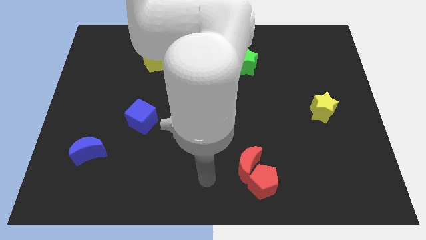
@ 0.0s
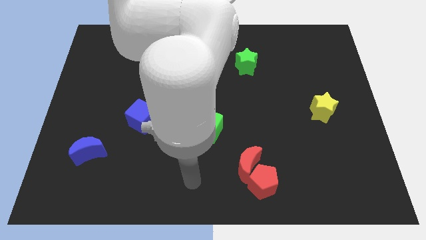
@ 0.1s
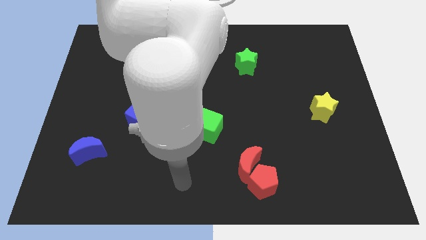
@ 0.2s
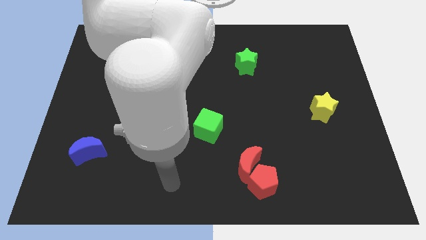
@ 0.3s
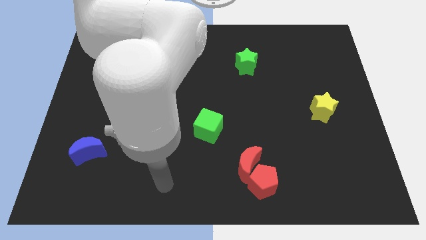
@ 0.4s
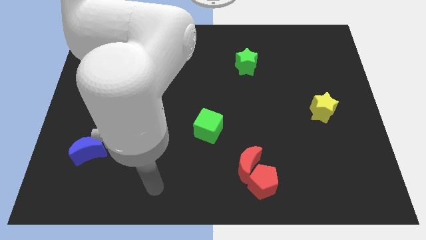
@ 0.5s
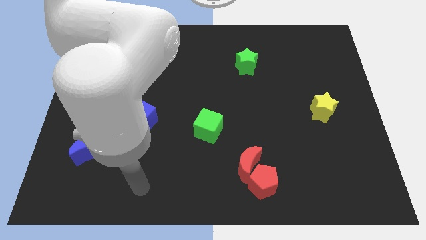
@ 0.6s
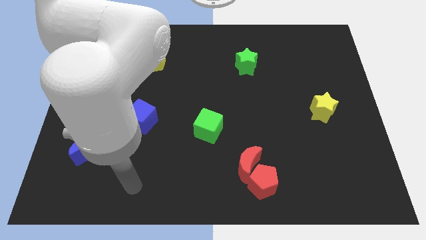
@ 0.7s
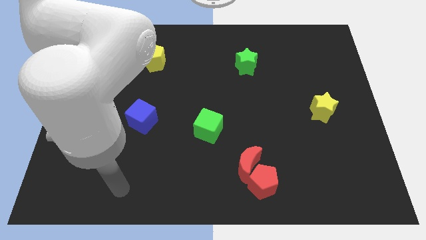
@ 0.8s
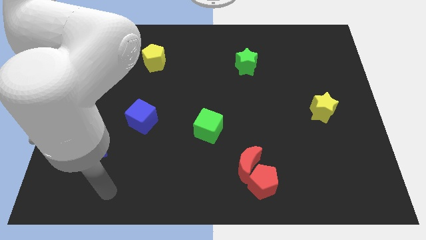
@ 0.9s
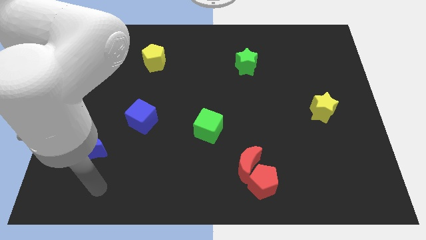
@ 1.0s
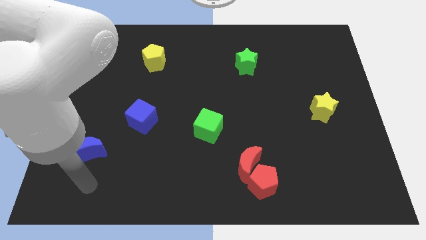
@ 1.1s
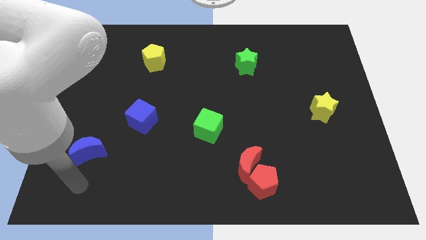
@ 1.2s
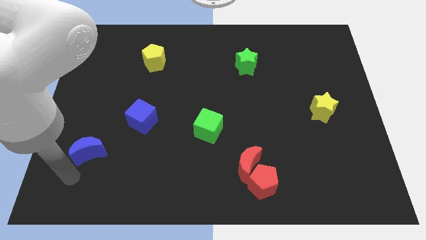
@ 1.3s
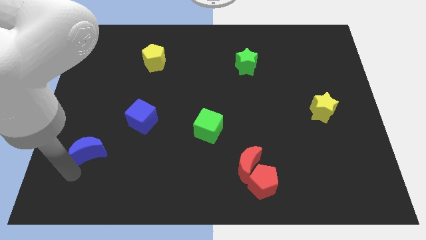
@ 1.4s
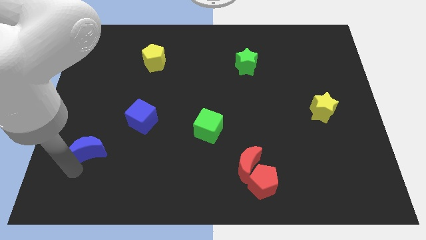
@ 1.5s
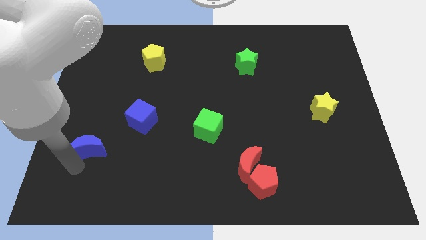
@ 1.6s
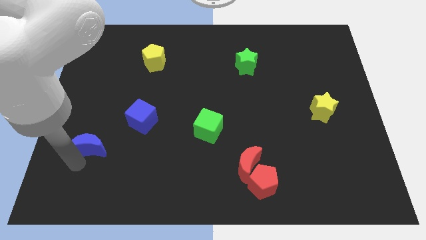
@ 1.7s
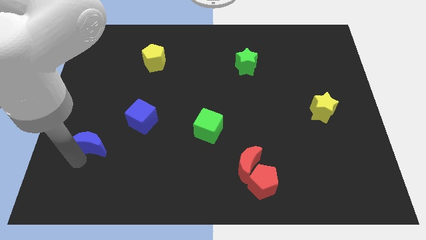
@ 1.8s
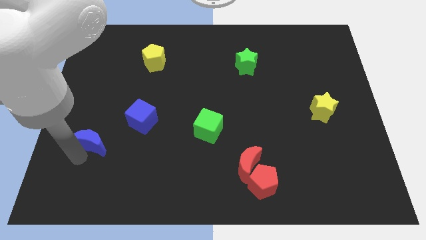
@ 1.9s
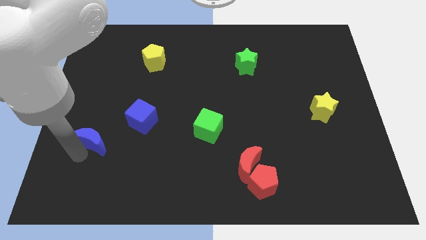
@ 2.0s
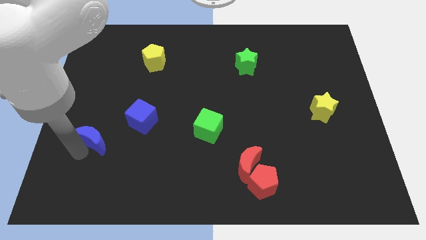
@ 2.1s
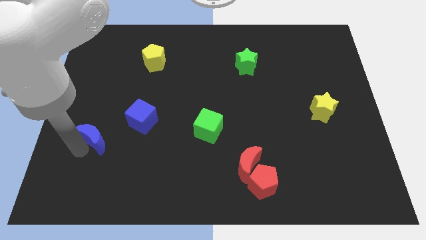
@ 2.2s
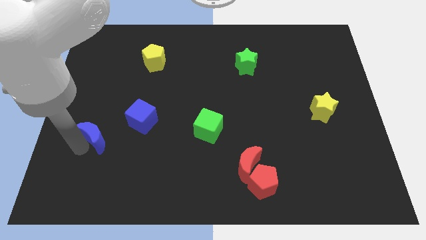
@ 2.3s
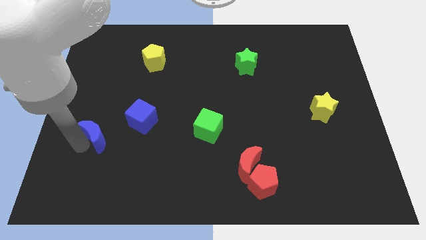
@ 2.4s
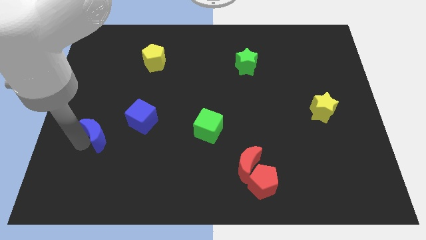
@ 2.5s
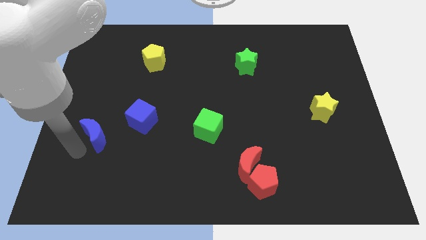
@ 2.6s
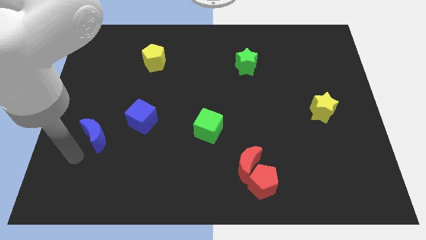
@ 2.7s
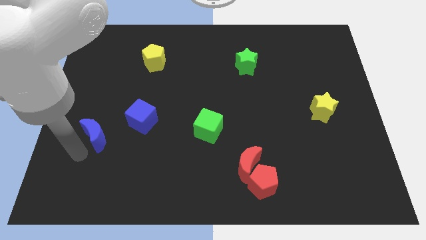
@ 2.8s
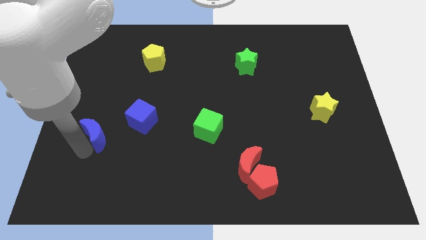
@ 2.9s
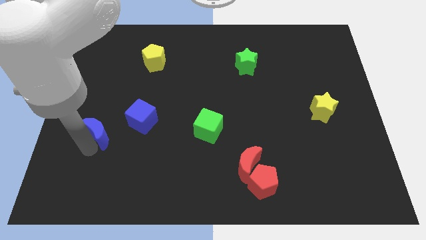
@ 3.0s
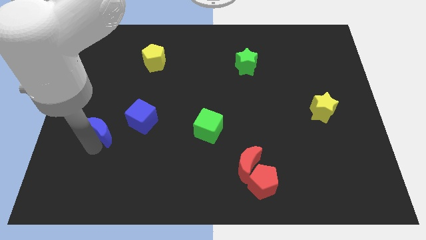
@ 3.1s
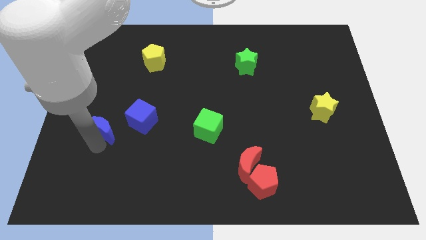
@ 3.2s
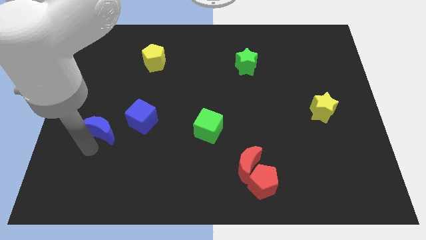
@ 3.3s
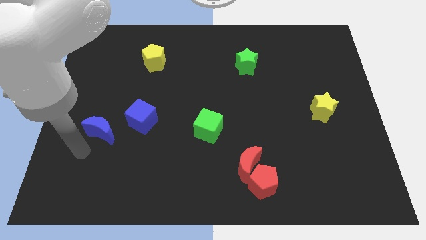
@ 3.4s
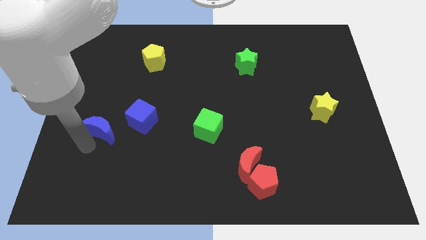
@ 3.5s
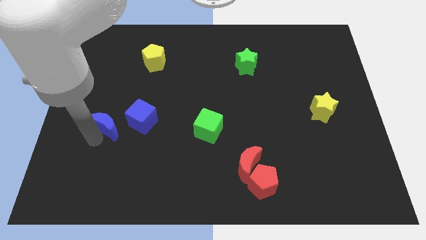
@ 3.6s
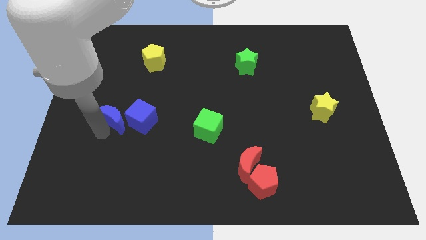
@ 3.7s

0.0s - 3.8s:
slightly push the blue moon upwards and right diagonally

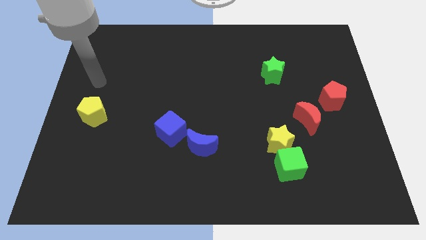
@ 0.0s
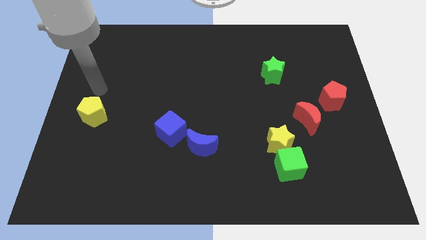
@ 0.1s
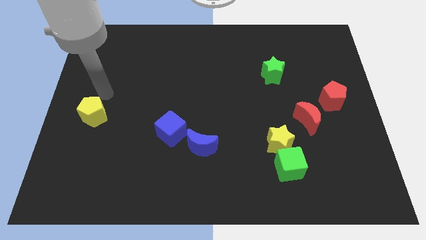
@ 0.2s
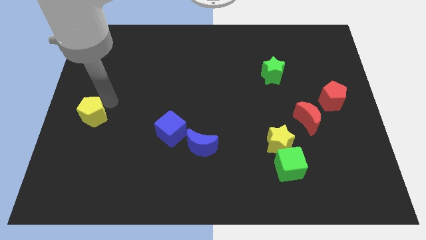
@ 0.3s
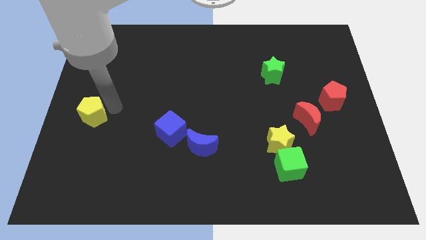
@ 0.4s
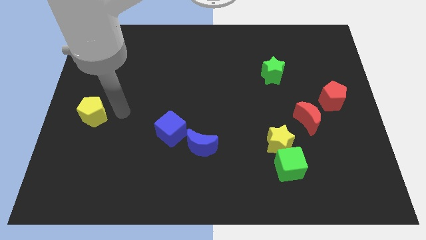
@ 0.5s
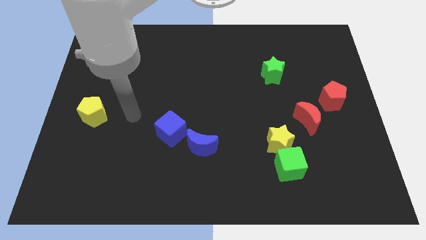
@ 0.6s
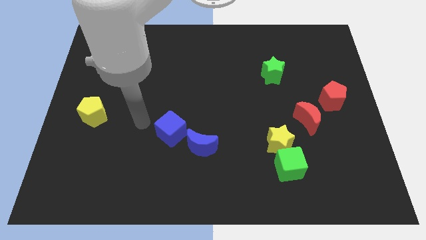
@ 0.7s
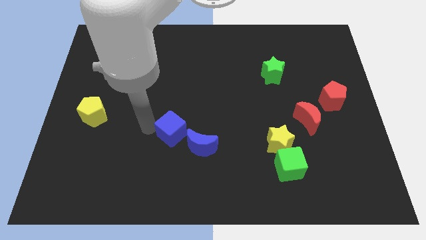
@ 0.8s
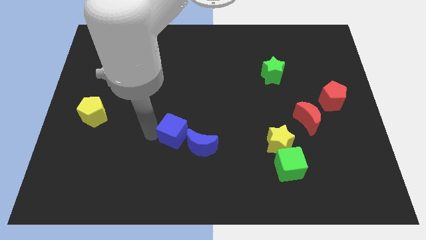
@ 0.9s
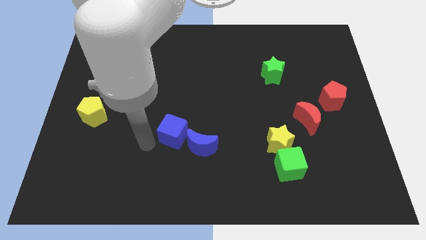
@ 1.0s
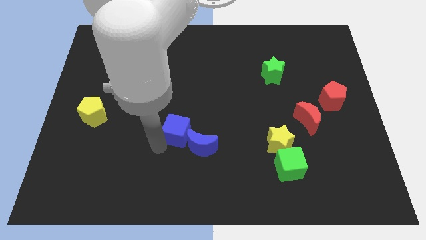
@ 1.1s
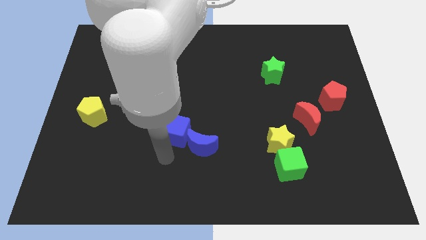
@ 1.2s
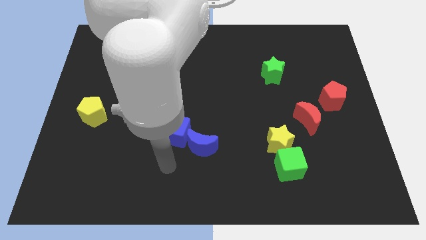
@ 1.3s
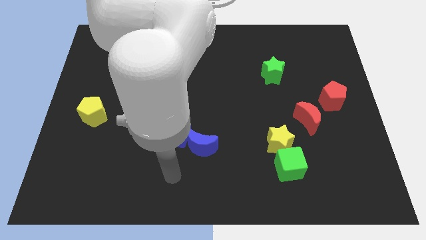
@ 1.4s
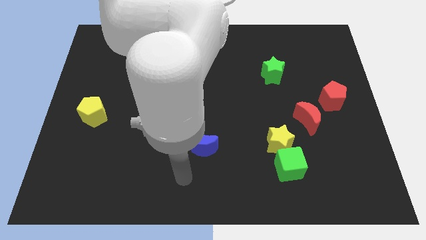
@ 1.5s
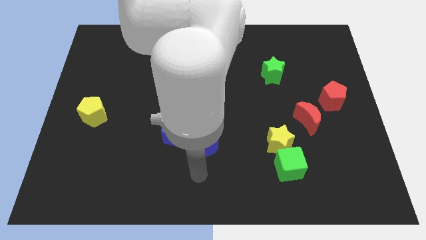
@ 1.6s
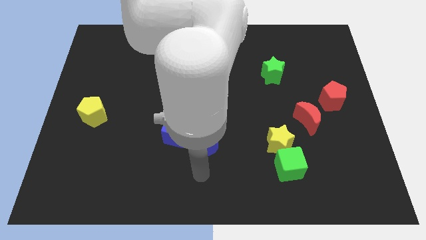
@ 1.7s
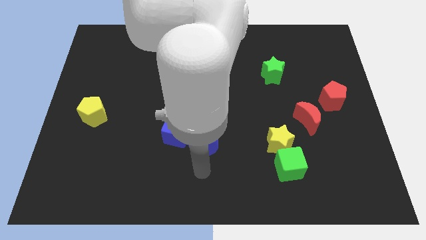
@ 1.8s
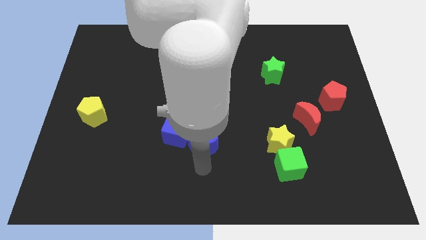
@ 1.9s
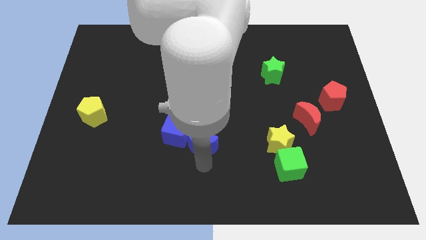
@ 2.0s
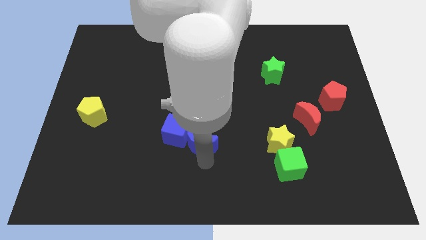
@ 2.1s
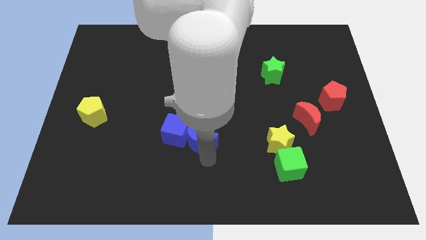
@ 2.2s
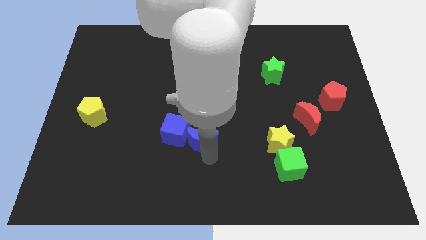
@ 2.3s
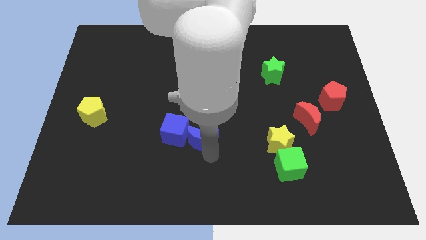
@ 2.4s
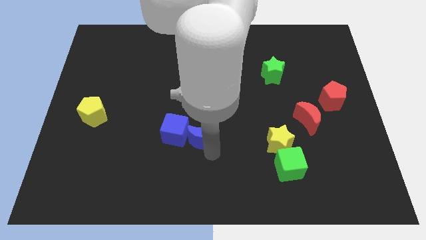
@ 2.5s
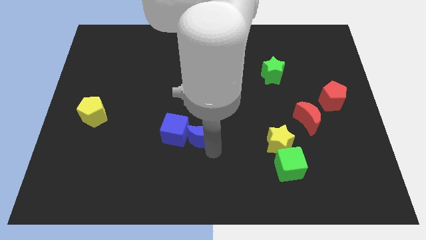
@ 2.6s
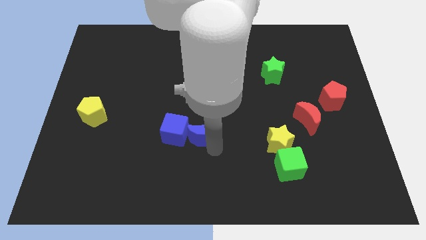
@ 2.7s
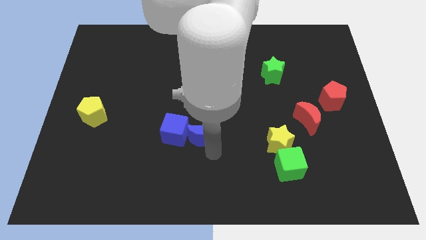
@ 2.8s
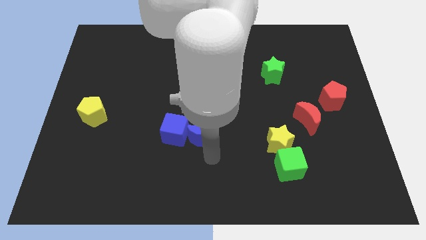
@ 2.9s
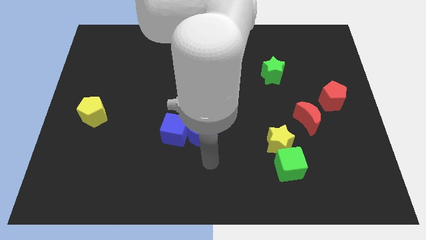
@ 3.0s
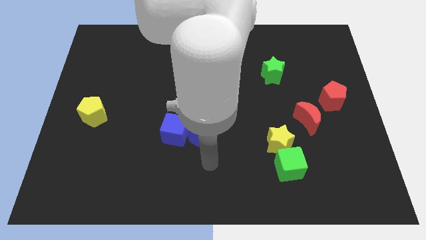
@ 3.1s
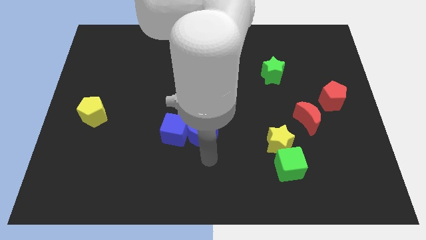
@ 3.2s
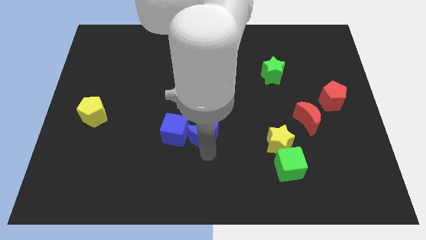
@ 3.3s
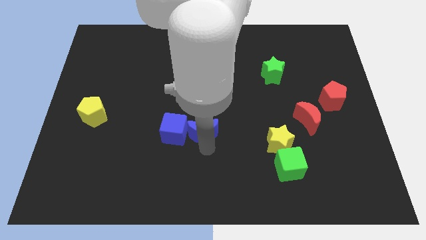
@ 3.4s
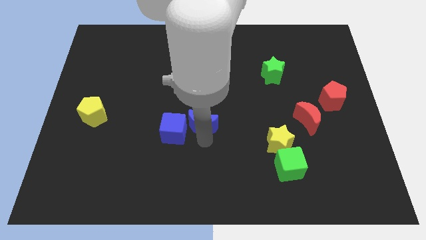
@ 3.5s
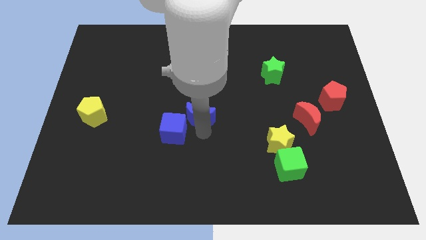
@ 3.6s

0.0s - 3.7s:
slightly slide the blue moon upwards

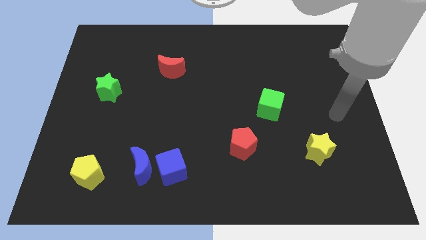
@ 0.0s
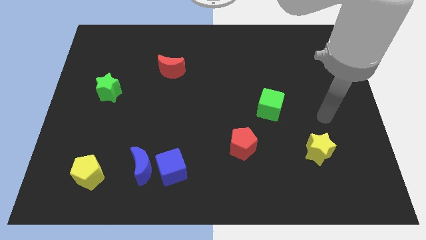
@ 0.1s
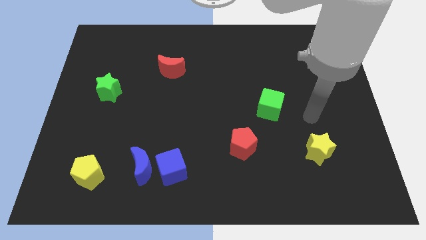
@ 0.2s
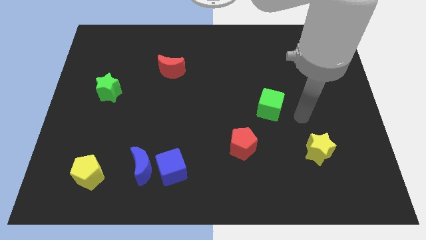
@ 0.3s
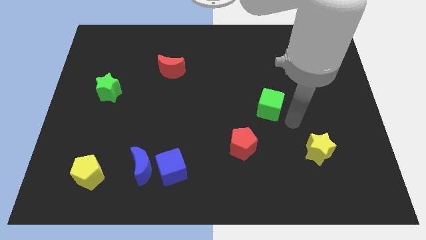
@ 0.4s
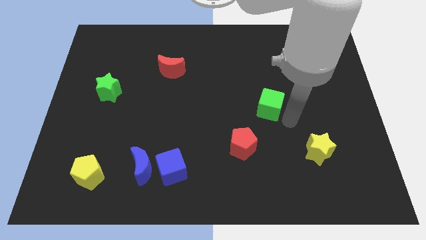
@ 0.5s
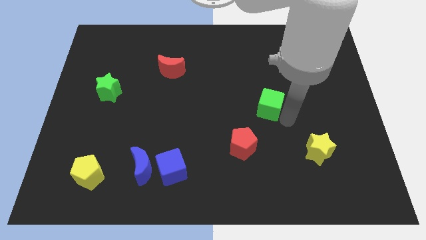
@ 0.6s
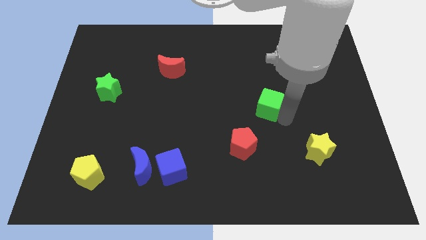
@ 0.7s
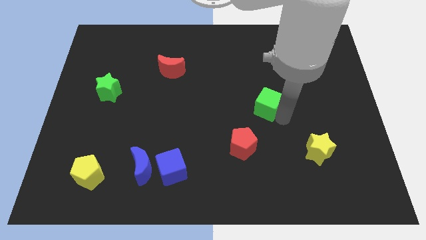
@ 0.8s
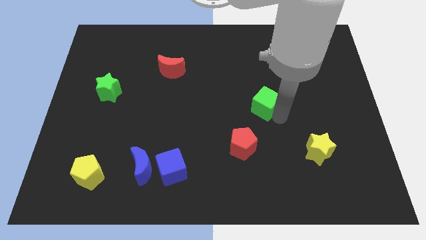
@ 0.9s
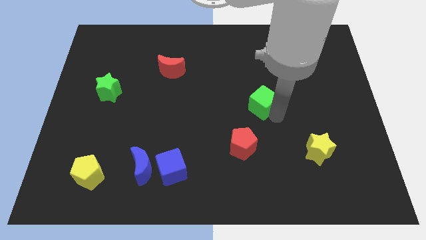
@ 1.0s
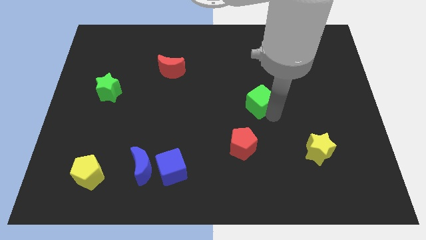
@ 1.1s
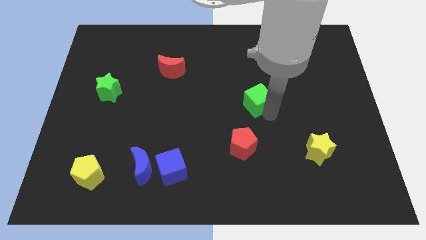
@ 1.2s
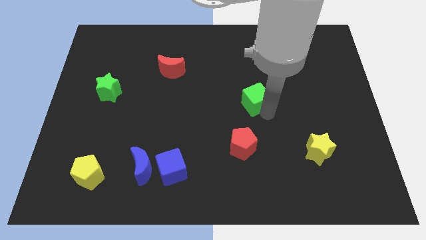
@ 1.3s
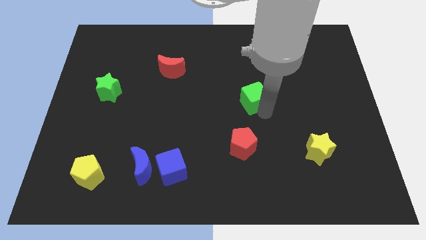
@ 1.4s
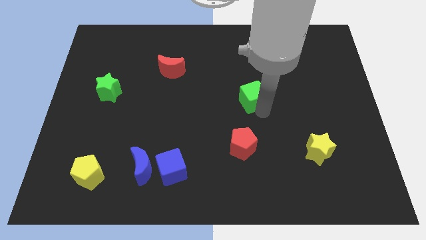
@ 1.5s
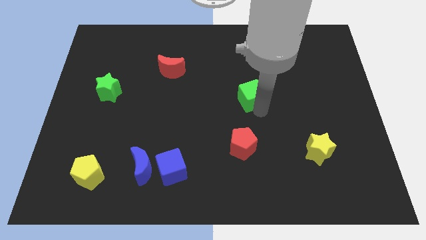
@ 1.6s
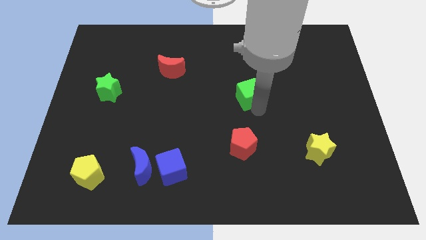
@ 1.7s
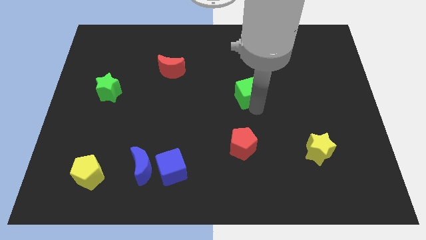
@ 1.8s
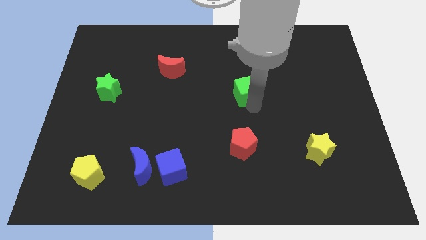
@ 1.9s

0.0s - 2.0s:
slightly push the green cube diagonally up and to the left
